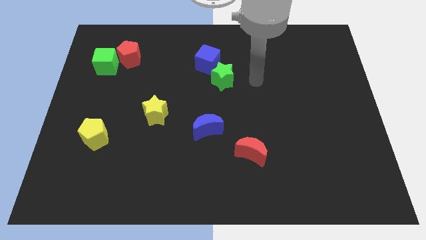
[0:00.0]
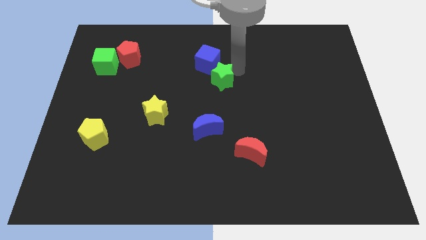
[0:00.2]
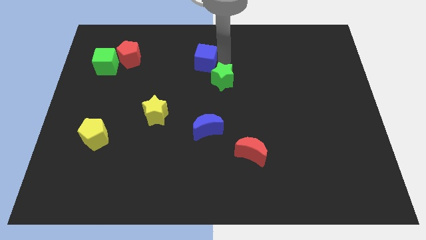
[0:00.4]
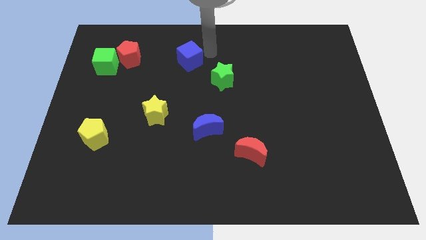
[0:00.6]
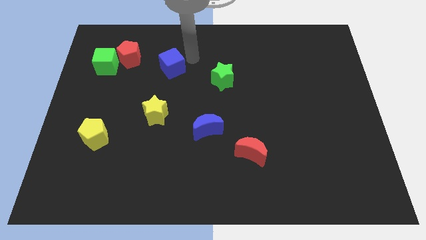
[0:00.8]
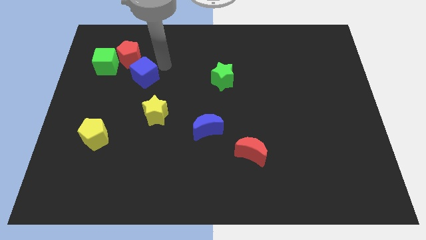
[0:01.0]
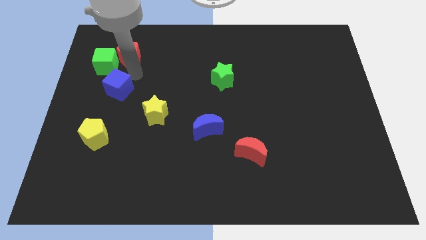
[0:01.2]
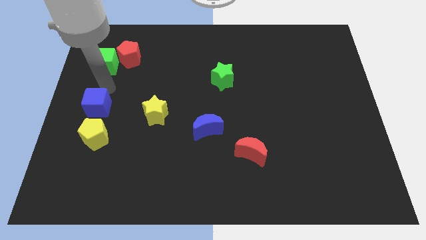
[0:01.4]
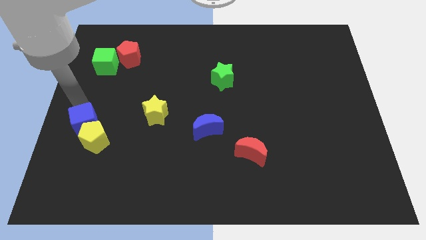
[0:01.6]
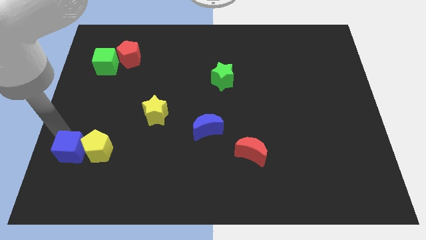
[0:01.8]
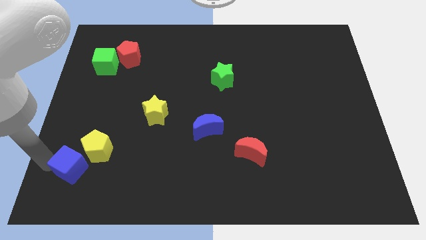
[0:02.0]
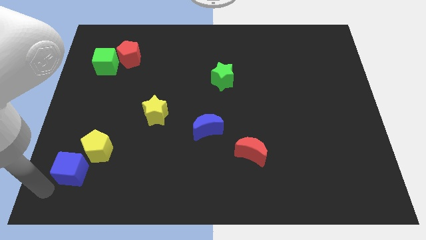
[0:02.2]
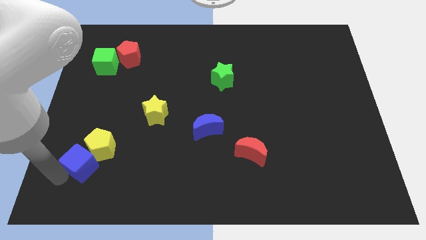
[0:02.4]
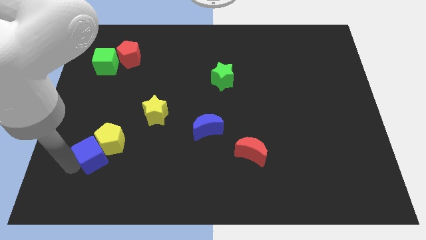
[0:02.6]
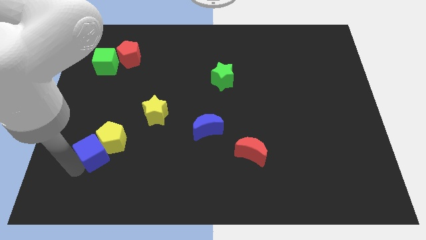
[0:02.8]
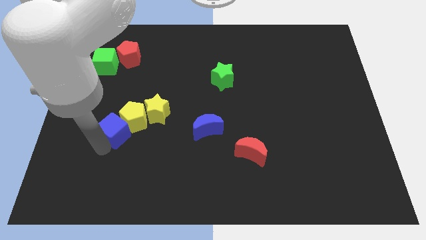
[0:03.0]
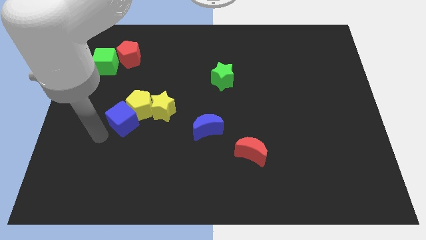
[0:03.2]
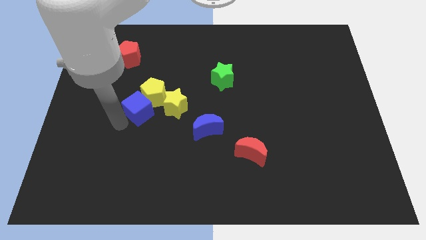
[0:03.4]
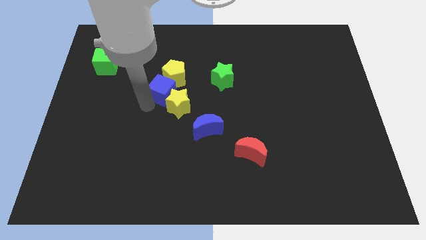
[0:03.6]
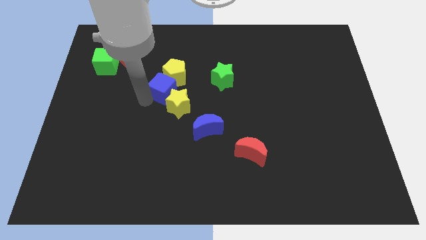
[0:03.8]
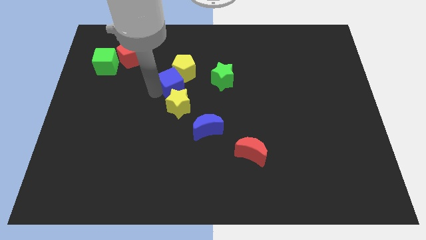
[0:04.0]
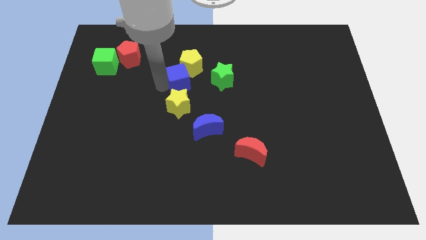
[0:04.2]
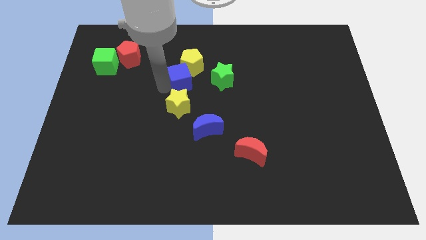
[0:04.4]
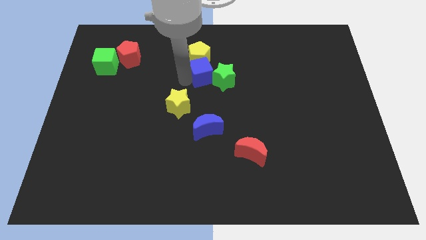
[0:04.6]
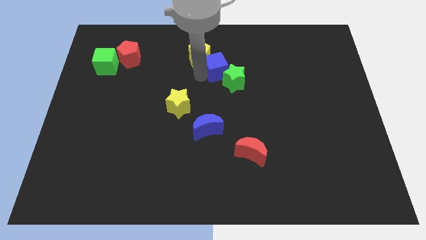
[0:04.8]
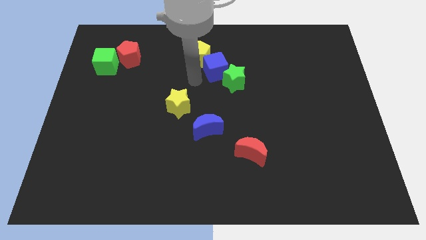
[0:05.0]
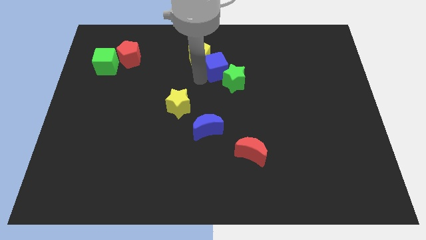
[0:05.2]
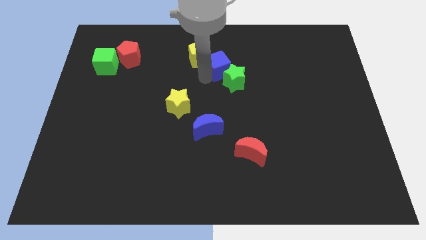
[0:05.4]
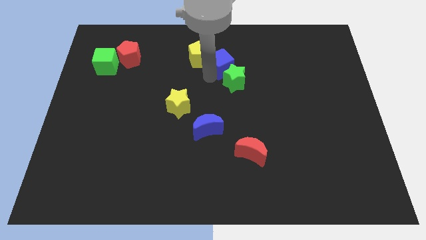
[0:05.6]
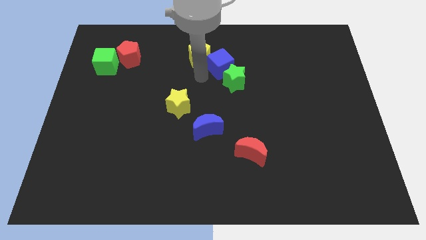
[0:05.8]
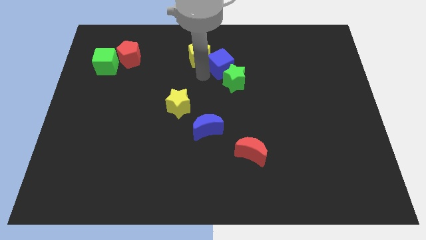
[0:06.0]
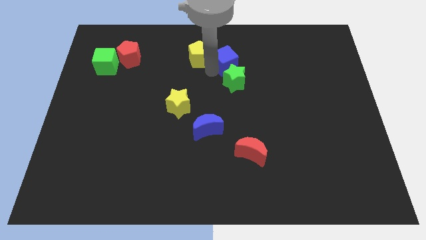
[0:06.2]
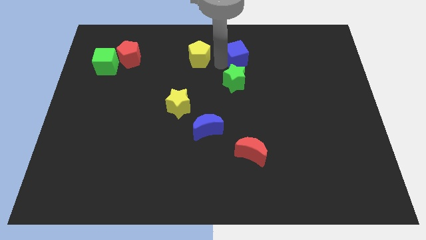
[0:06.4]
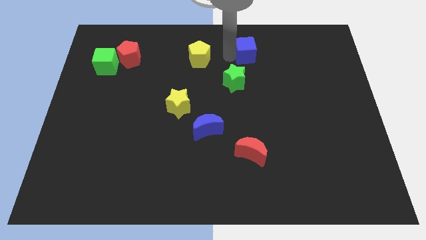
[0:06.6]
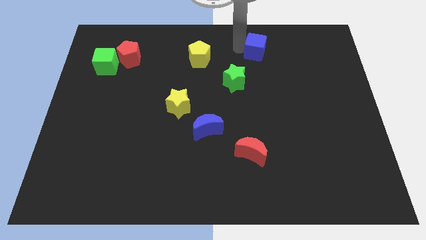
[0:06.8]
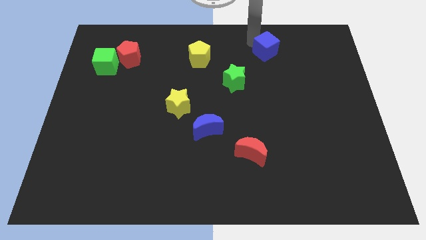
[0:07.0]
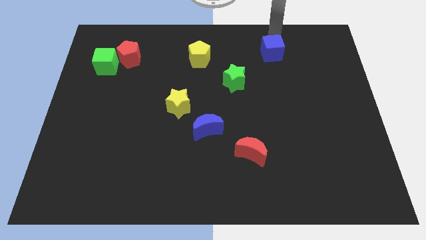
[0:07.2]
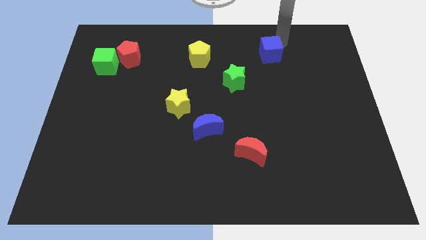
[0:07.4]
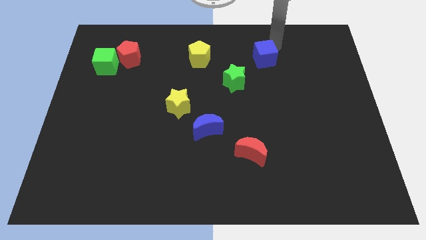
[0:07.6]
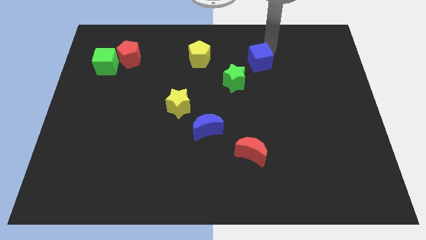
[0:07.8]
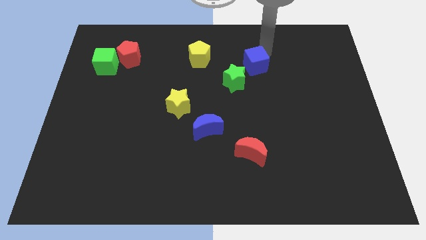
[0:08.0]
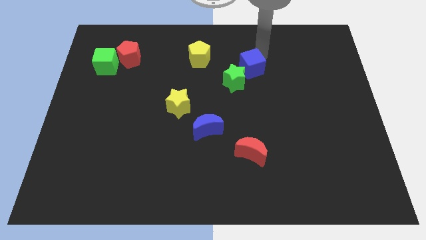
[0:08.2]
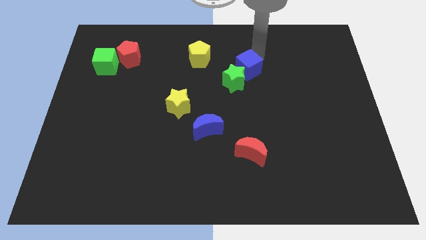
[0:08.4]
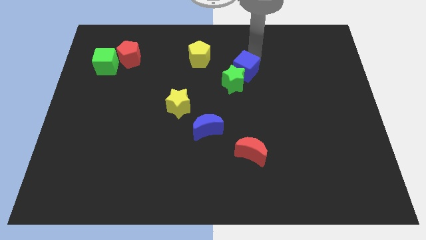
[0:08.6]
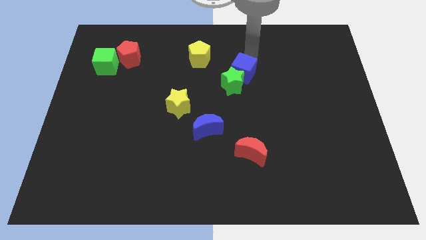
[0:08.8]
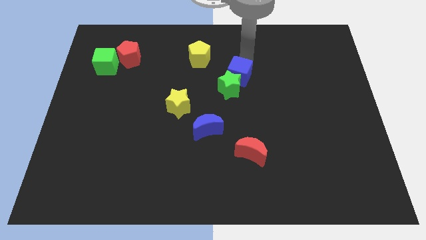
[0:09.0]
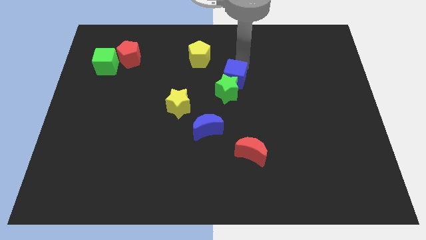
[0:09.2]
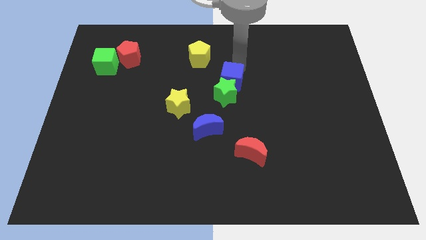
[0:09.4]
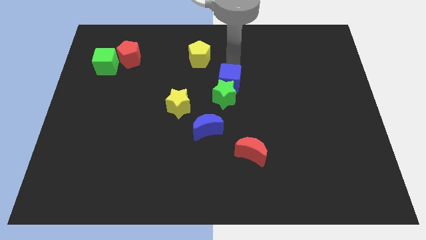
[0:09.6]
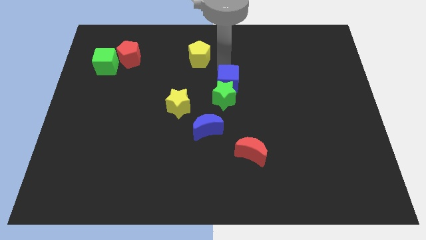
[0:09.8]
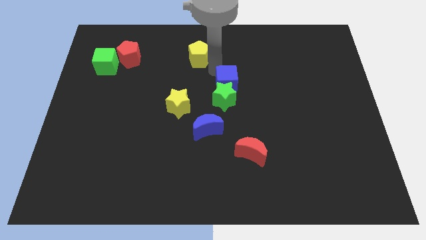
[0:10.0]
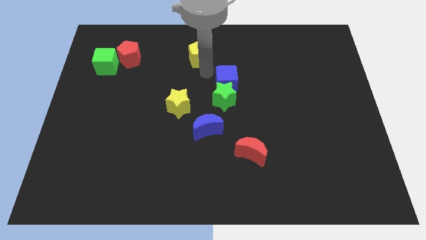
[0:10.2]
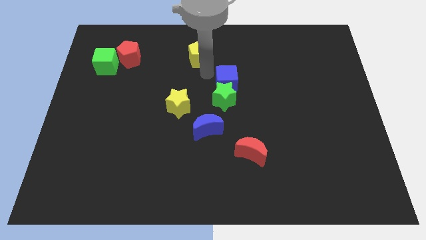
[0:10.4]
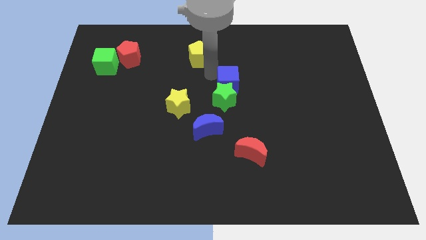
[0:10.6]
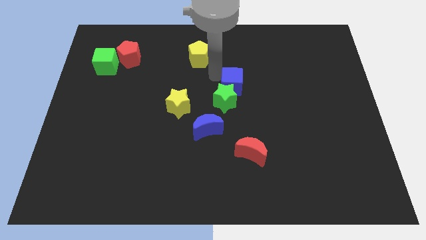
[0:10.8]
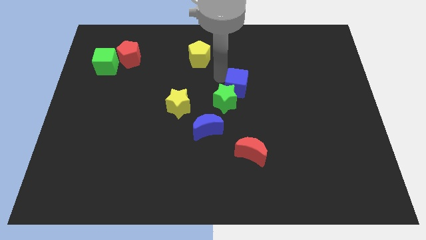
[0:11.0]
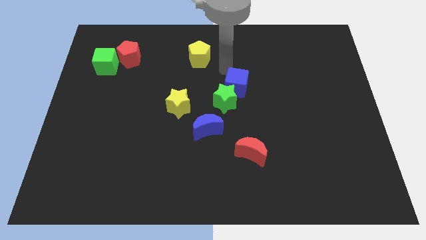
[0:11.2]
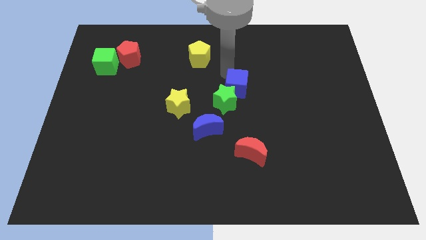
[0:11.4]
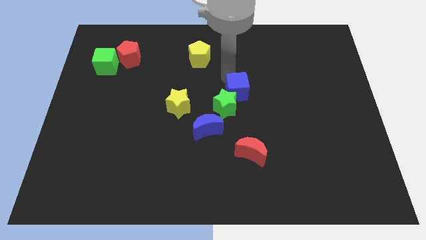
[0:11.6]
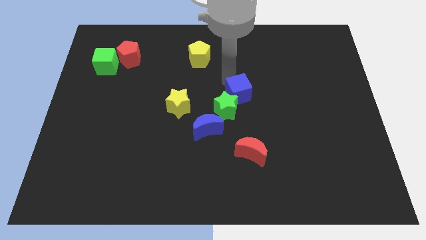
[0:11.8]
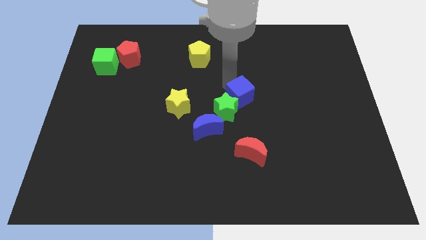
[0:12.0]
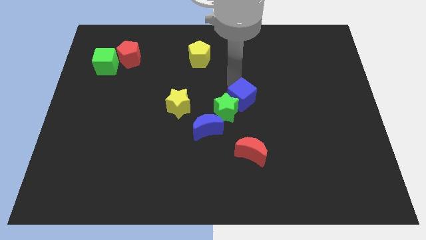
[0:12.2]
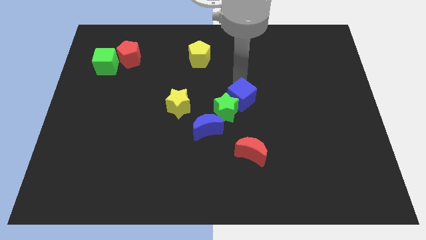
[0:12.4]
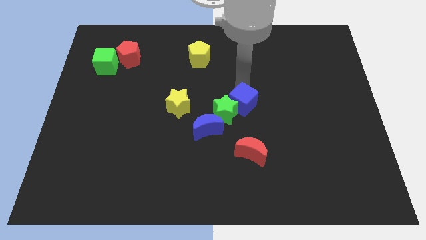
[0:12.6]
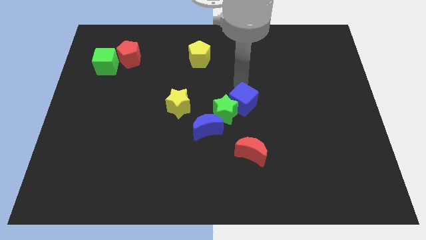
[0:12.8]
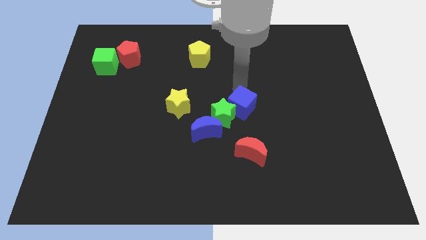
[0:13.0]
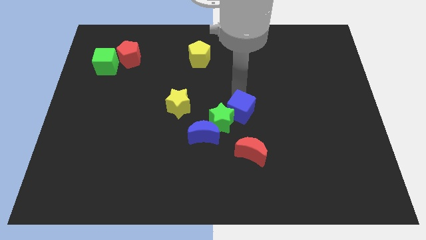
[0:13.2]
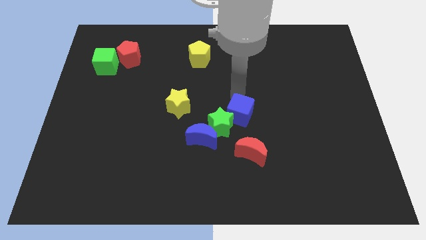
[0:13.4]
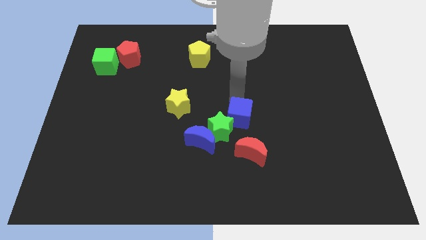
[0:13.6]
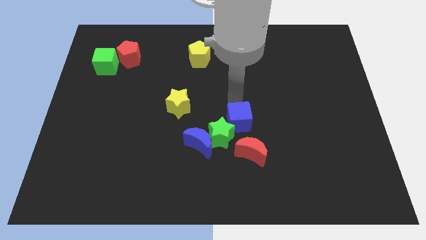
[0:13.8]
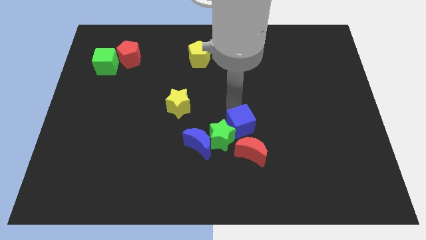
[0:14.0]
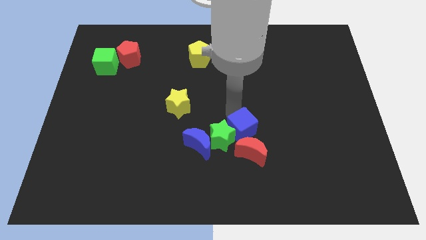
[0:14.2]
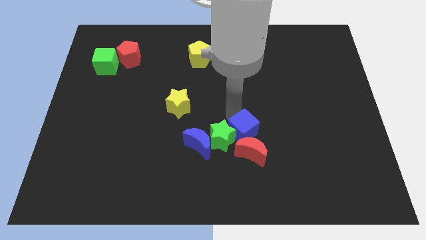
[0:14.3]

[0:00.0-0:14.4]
push the blue cube towards the red moon

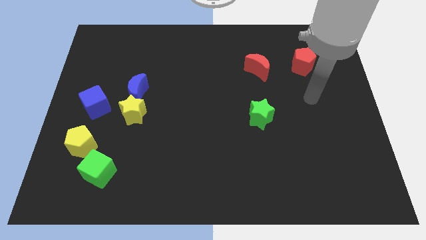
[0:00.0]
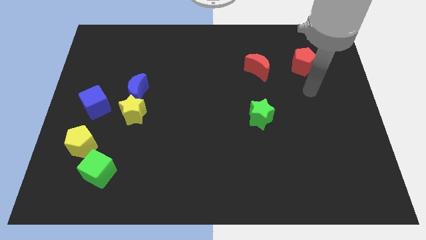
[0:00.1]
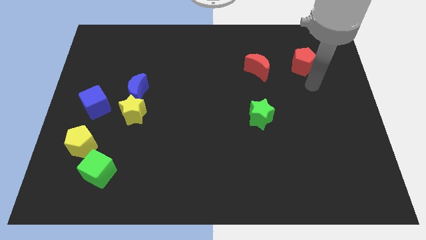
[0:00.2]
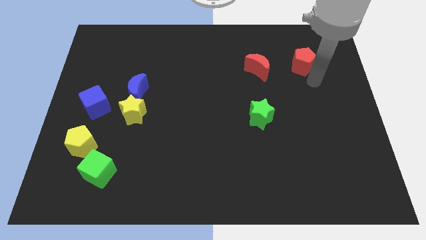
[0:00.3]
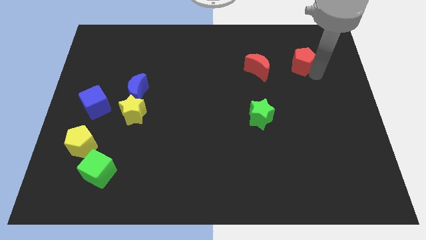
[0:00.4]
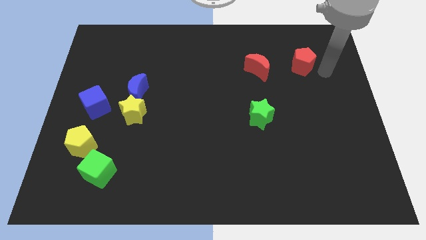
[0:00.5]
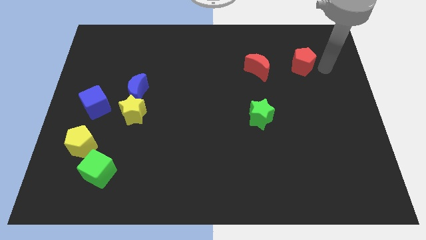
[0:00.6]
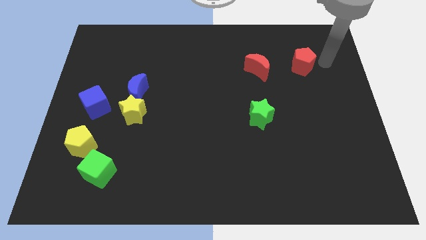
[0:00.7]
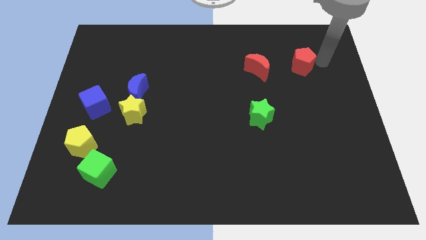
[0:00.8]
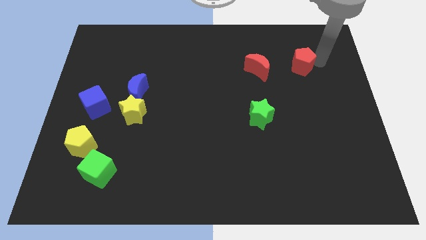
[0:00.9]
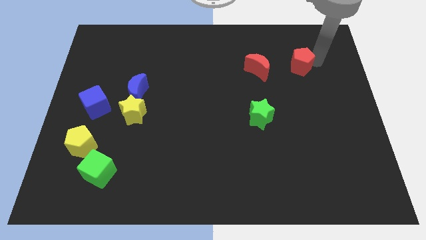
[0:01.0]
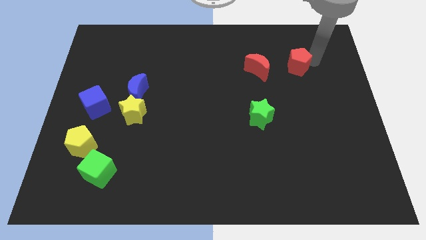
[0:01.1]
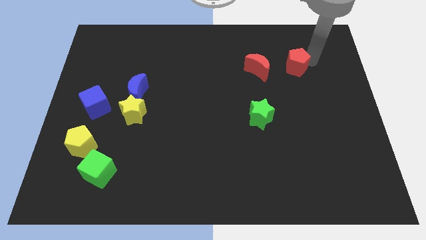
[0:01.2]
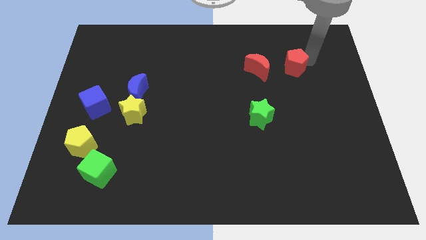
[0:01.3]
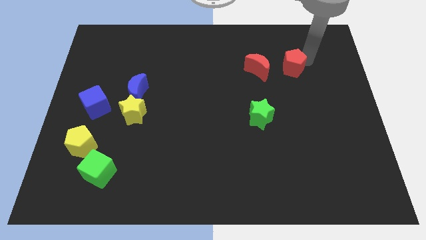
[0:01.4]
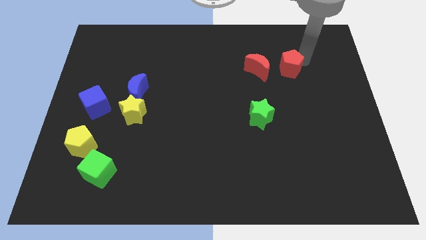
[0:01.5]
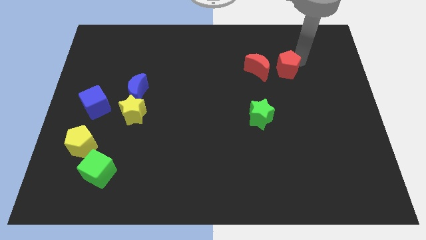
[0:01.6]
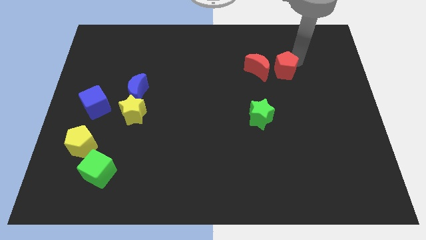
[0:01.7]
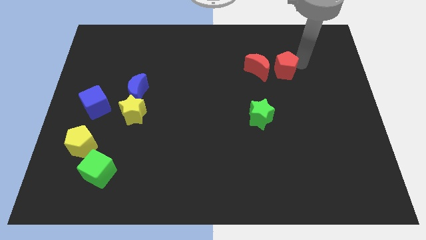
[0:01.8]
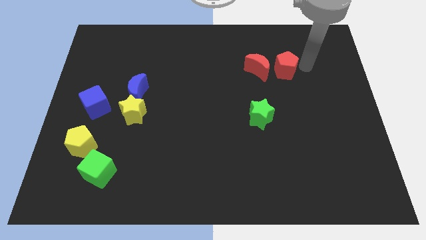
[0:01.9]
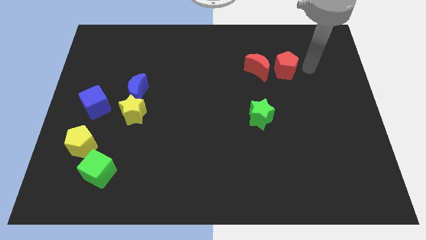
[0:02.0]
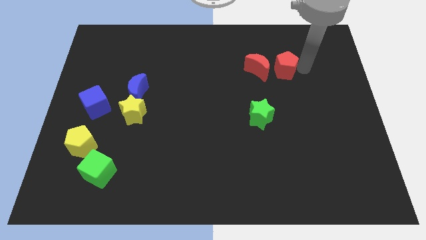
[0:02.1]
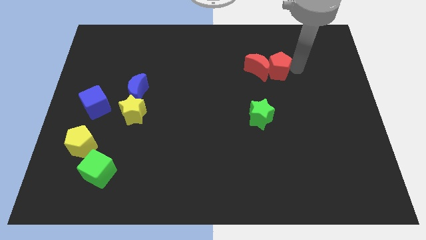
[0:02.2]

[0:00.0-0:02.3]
move the red pentagon towards the red moon
